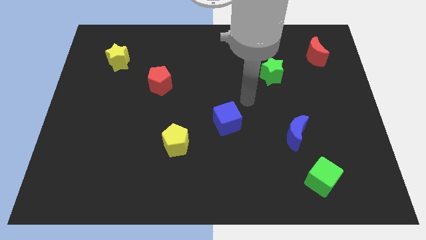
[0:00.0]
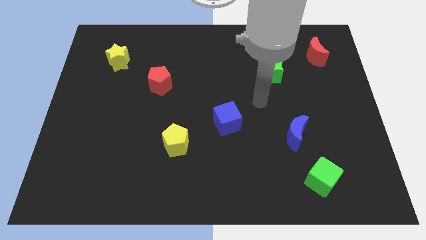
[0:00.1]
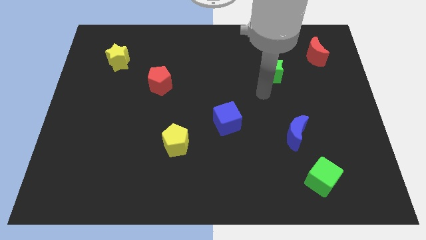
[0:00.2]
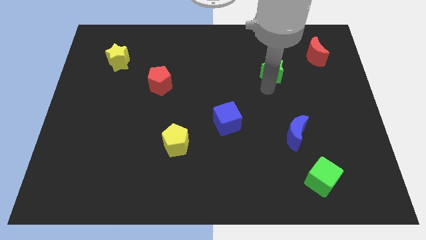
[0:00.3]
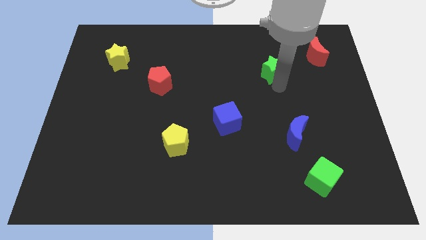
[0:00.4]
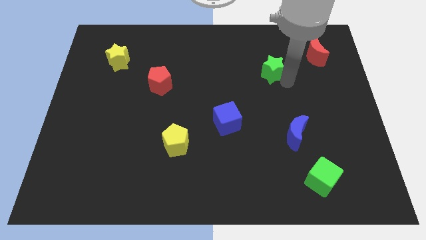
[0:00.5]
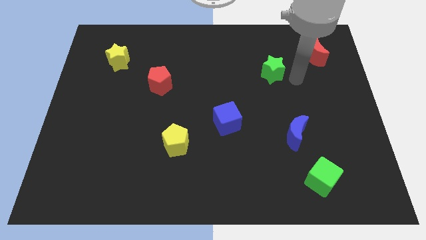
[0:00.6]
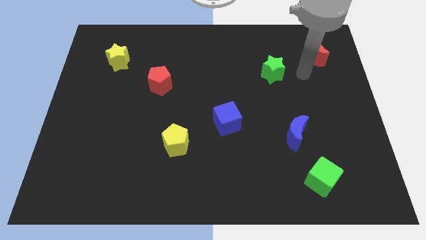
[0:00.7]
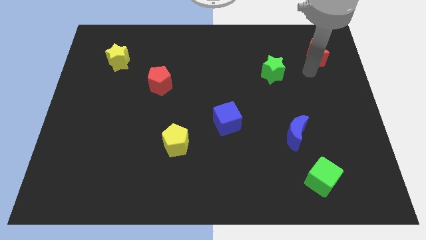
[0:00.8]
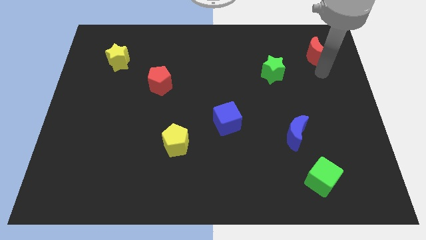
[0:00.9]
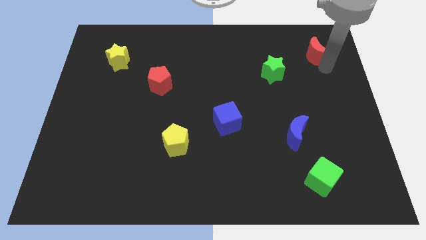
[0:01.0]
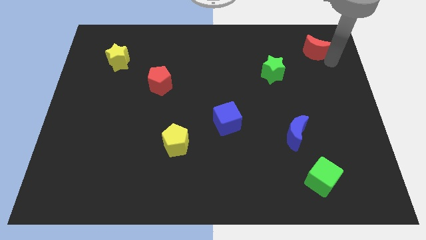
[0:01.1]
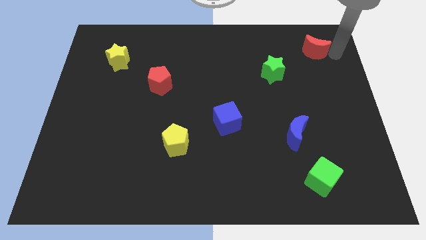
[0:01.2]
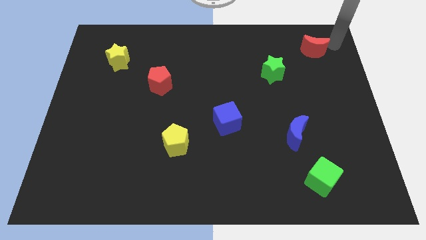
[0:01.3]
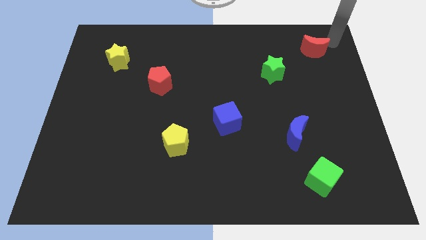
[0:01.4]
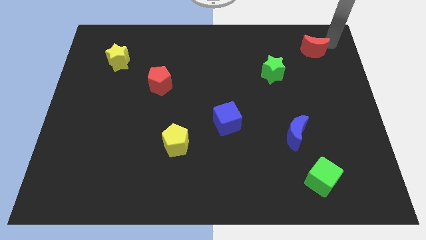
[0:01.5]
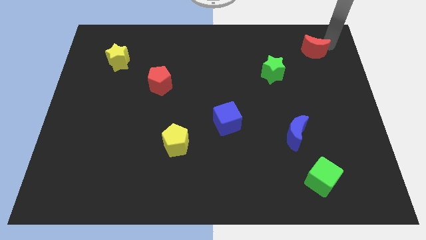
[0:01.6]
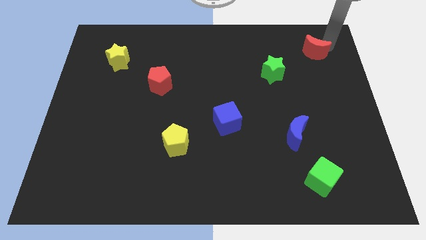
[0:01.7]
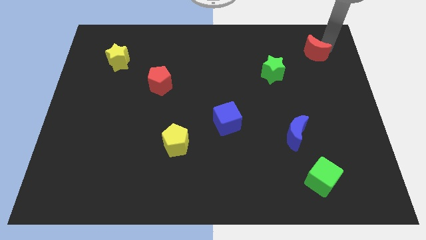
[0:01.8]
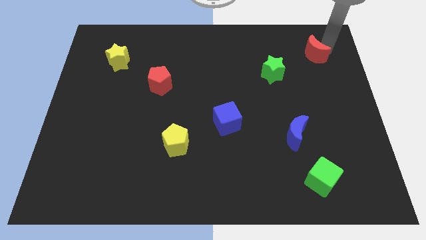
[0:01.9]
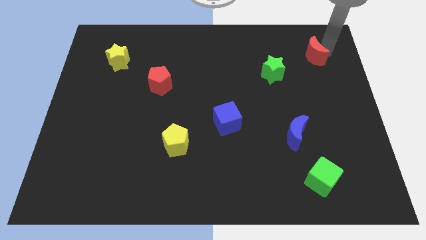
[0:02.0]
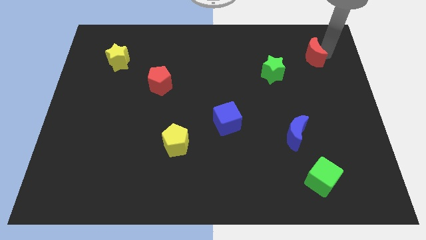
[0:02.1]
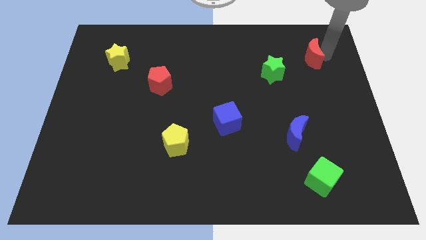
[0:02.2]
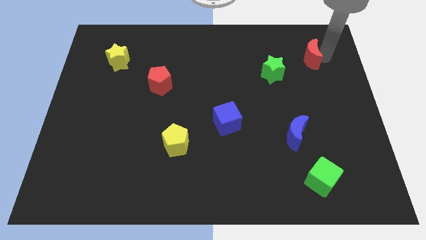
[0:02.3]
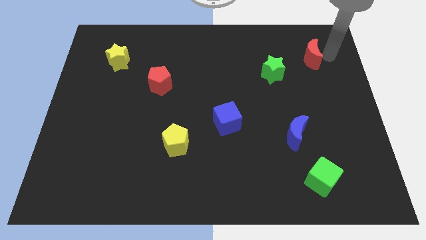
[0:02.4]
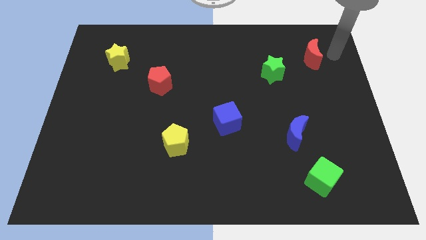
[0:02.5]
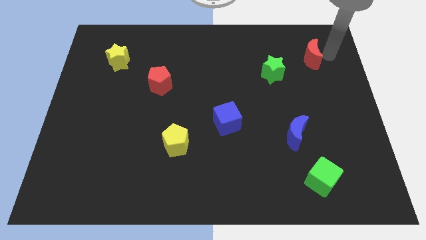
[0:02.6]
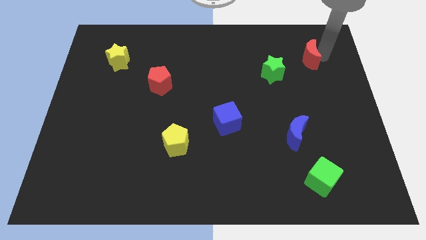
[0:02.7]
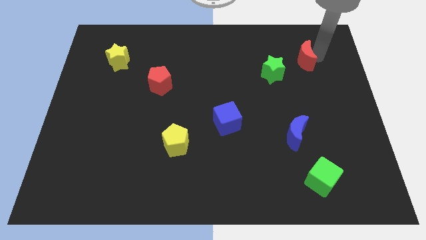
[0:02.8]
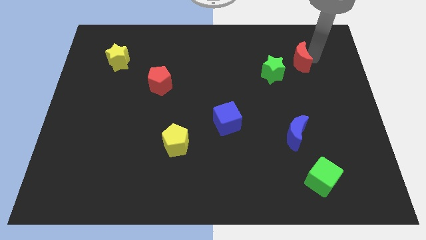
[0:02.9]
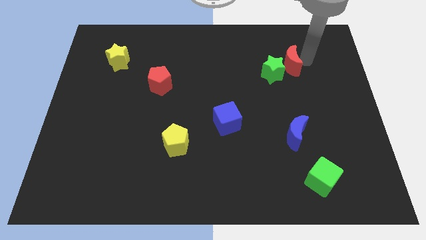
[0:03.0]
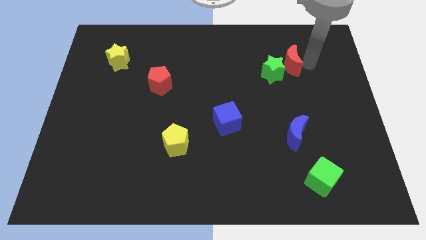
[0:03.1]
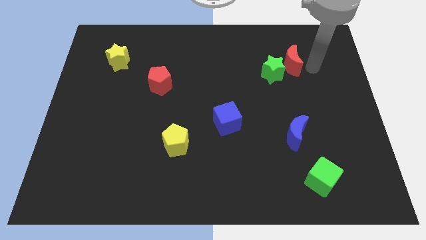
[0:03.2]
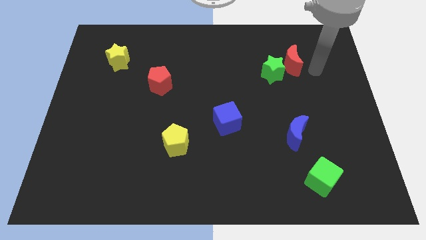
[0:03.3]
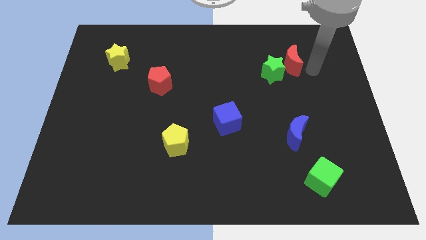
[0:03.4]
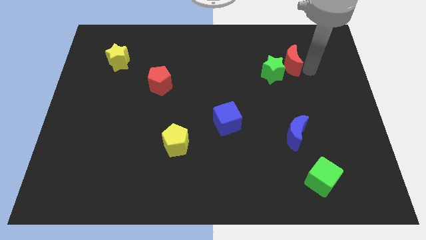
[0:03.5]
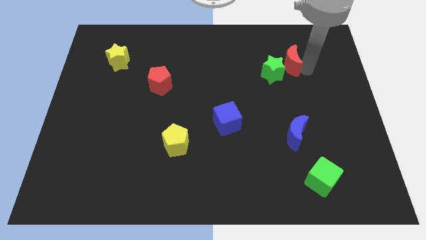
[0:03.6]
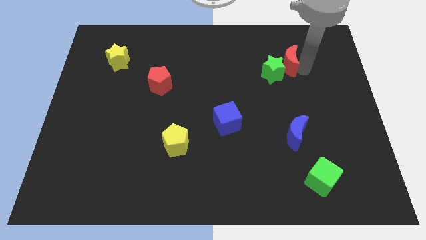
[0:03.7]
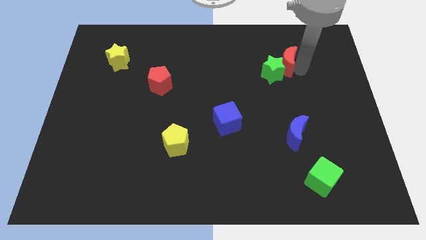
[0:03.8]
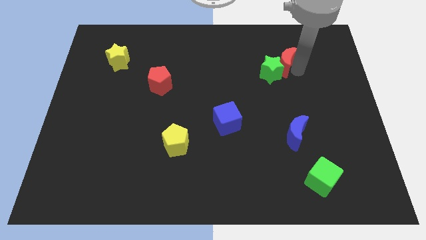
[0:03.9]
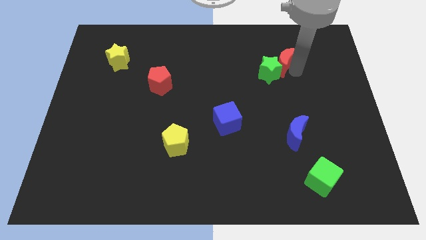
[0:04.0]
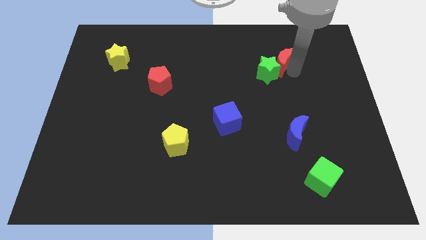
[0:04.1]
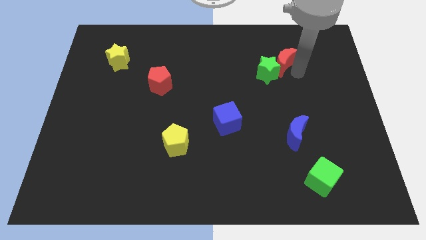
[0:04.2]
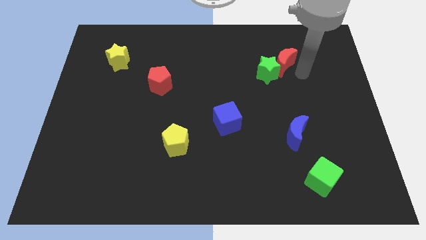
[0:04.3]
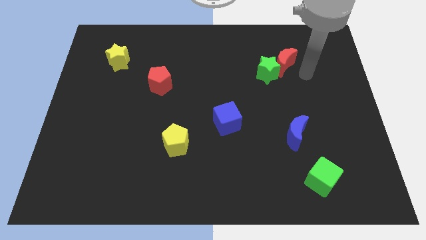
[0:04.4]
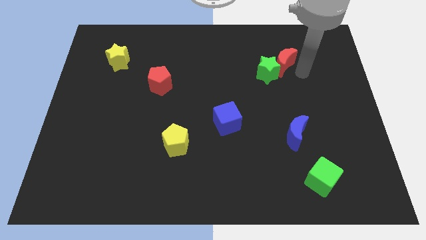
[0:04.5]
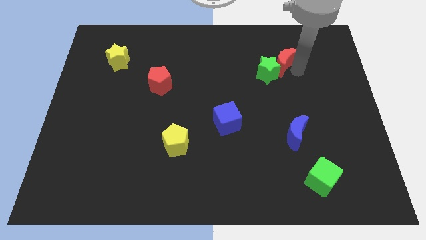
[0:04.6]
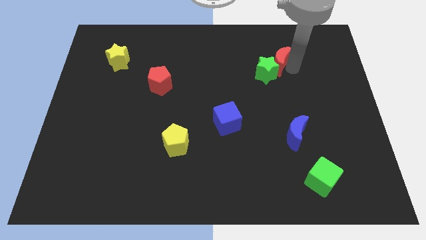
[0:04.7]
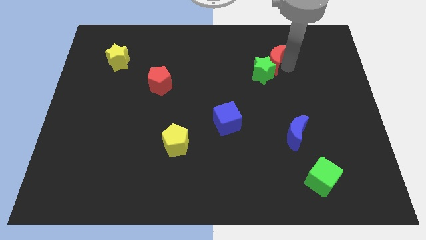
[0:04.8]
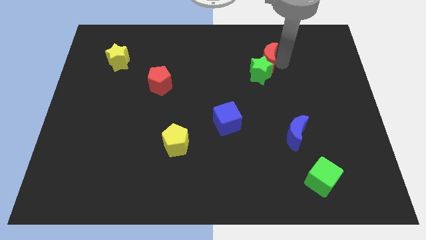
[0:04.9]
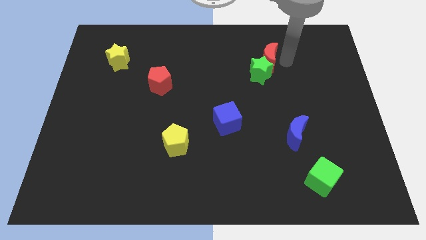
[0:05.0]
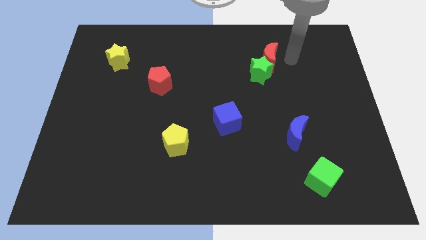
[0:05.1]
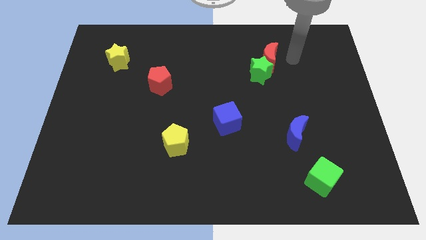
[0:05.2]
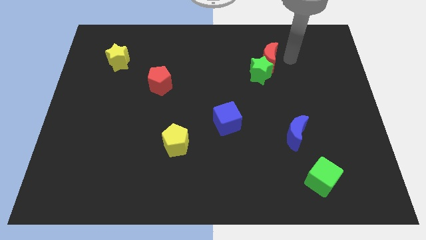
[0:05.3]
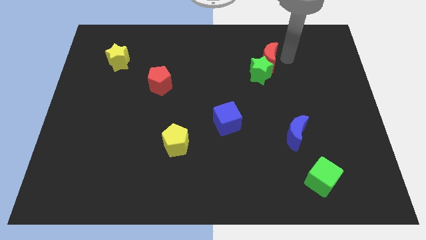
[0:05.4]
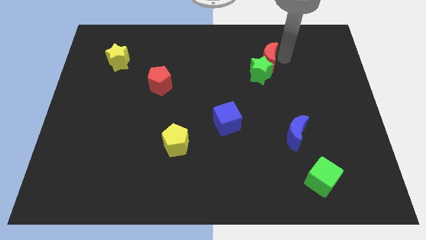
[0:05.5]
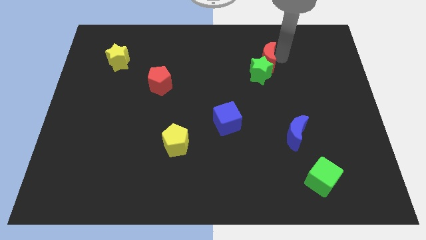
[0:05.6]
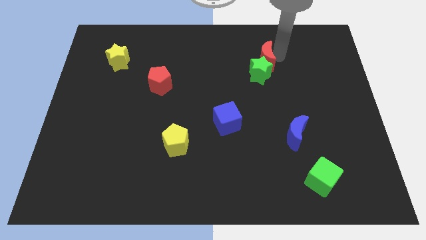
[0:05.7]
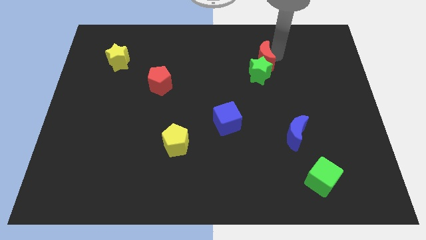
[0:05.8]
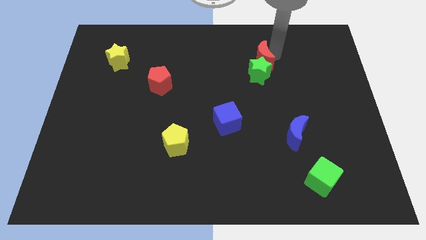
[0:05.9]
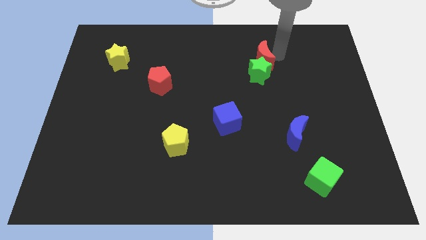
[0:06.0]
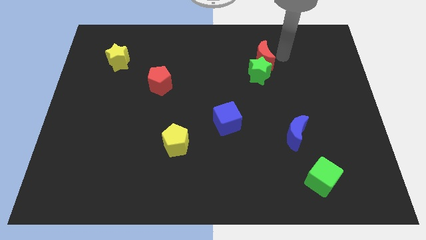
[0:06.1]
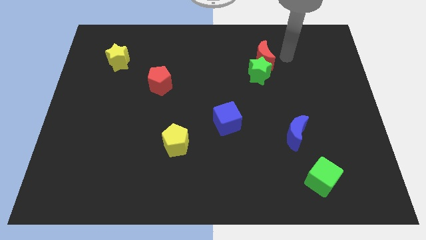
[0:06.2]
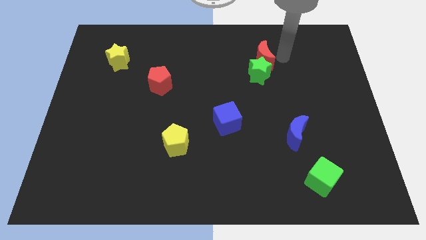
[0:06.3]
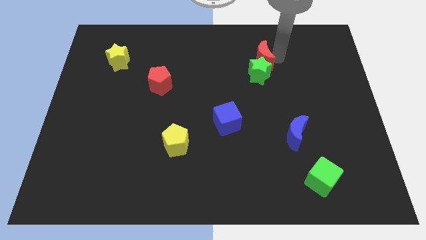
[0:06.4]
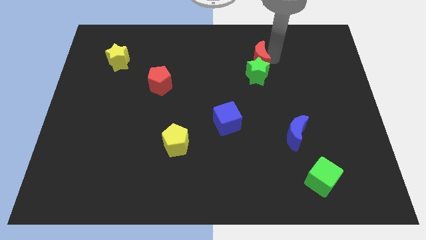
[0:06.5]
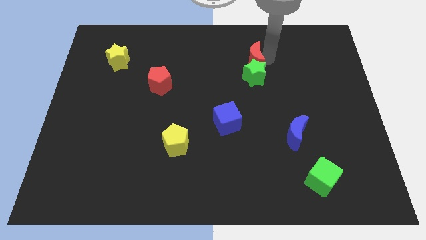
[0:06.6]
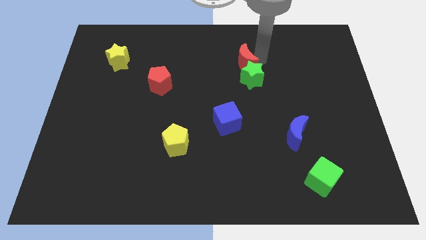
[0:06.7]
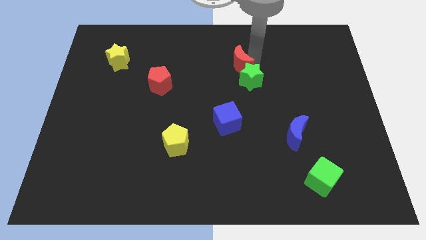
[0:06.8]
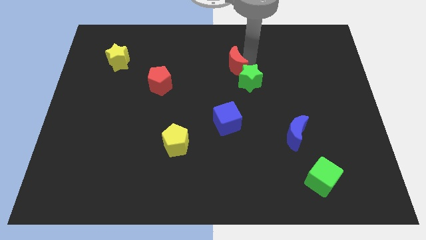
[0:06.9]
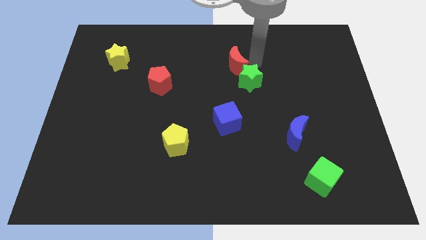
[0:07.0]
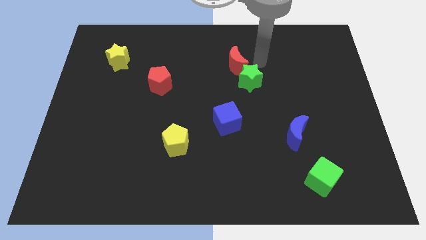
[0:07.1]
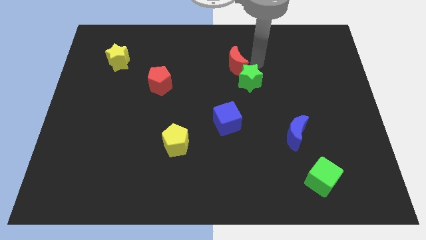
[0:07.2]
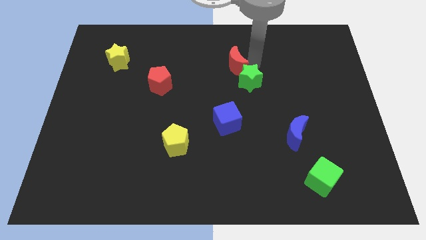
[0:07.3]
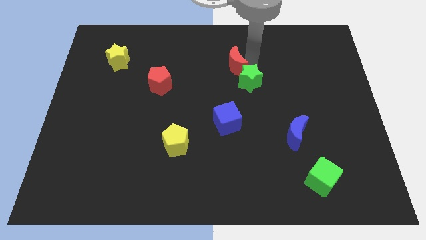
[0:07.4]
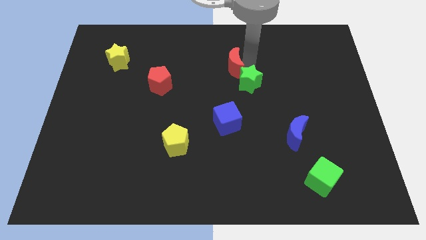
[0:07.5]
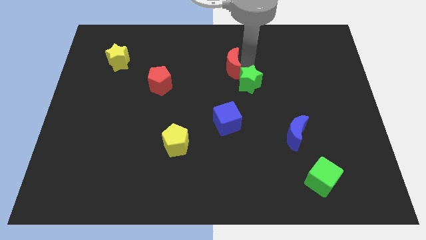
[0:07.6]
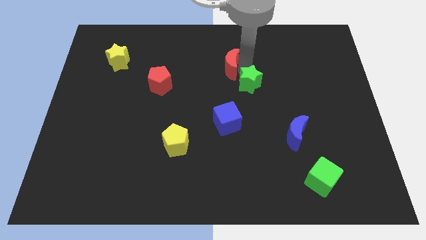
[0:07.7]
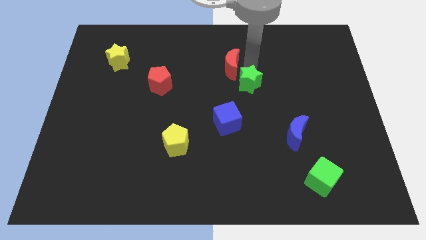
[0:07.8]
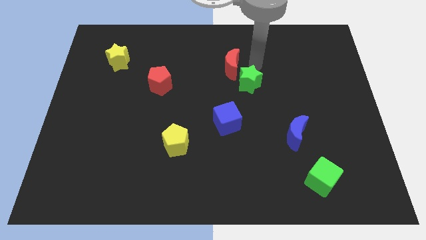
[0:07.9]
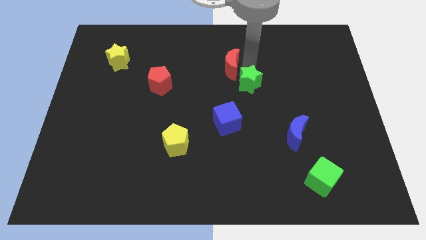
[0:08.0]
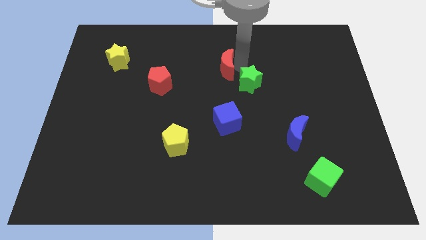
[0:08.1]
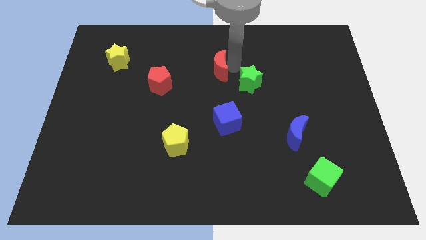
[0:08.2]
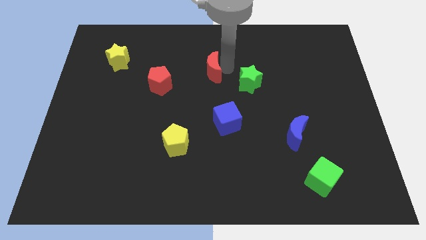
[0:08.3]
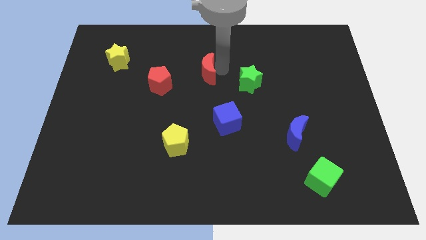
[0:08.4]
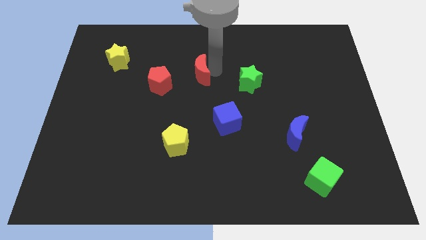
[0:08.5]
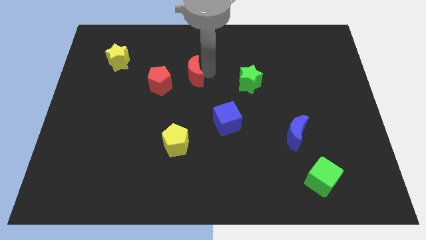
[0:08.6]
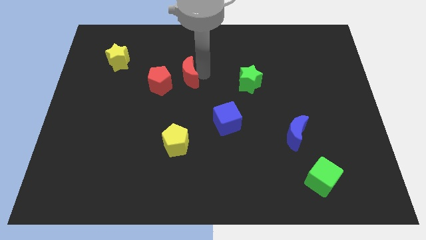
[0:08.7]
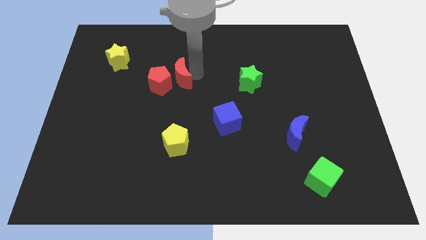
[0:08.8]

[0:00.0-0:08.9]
put the red moon towards the red pentagon
